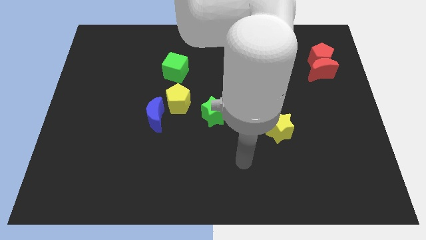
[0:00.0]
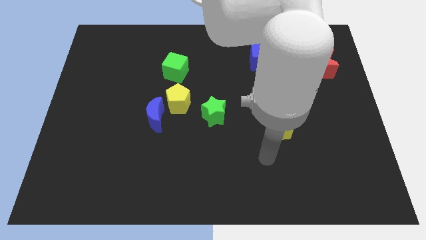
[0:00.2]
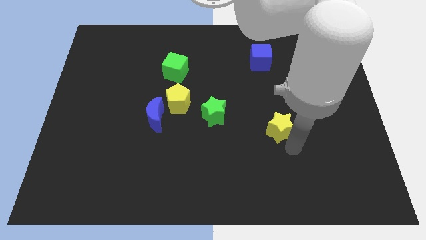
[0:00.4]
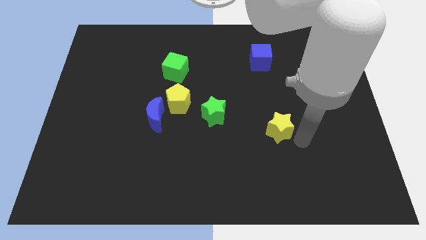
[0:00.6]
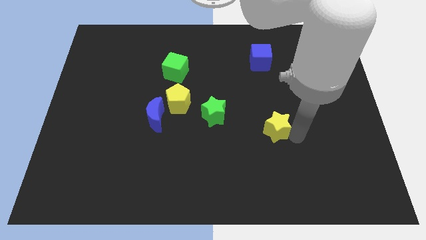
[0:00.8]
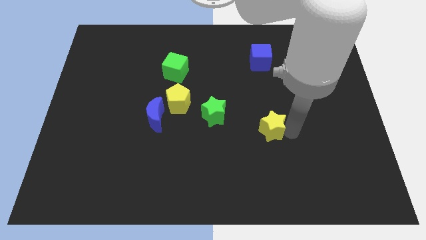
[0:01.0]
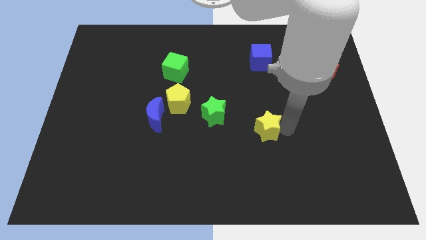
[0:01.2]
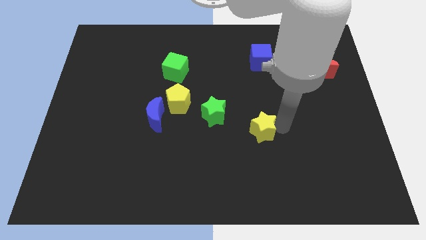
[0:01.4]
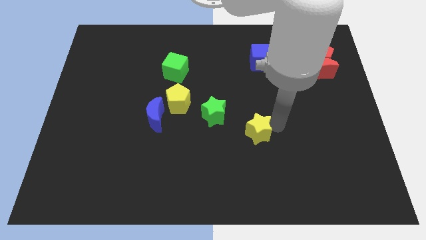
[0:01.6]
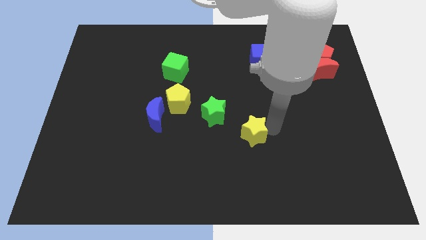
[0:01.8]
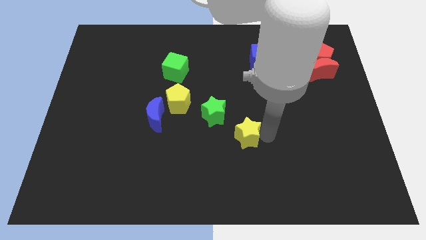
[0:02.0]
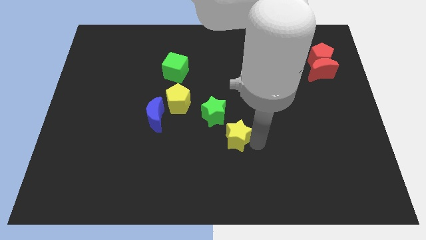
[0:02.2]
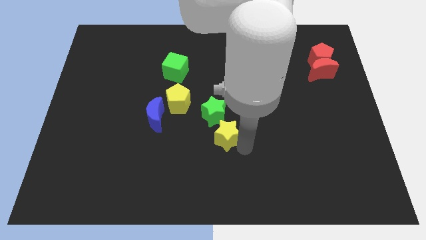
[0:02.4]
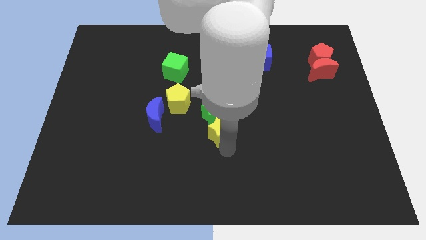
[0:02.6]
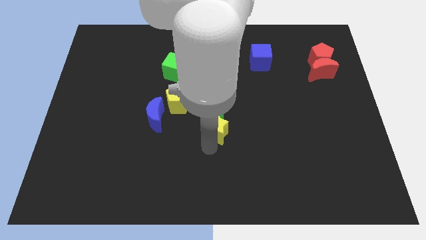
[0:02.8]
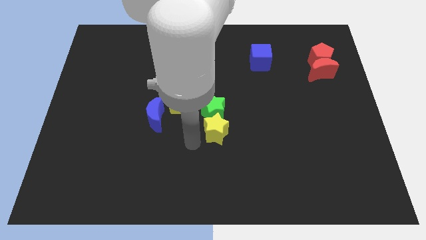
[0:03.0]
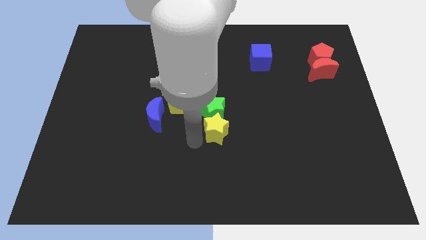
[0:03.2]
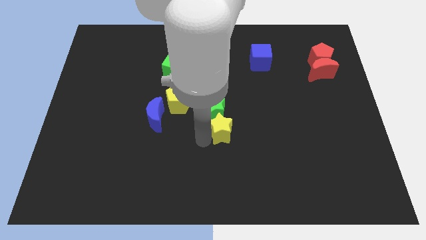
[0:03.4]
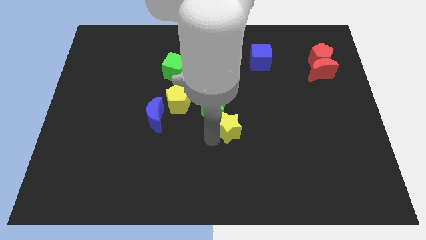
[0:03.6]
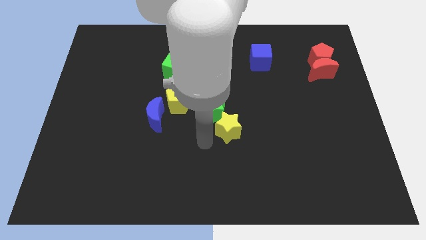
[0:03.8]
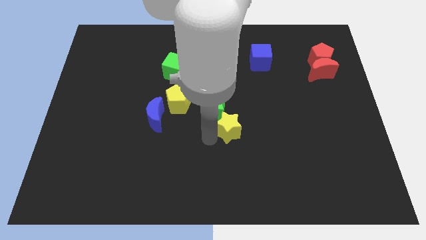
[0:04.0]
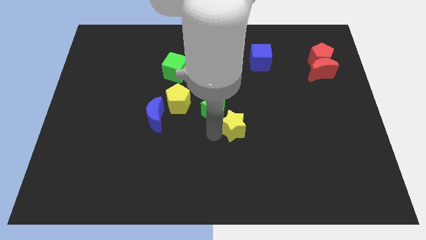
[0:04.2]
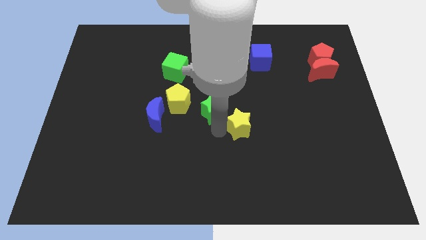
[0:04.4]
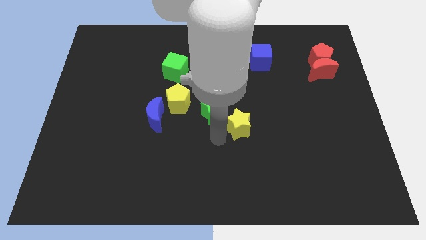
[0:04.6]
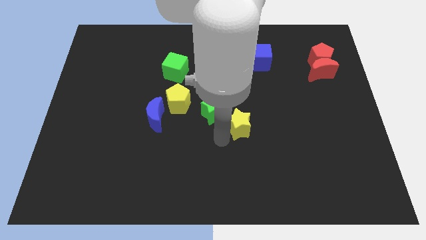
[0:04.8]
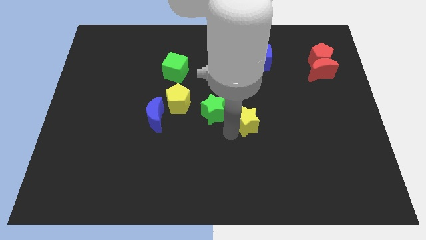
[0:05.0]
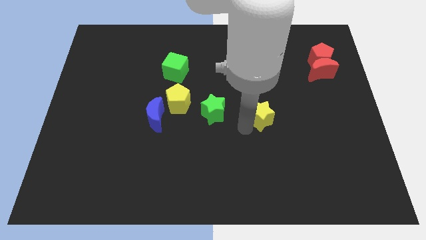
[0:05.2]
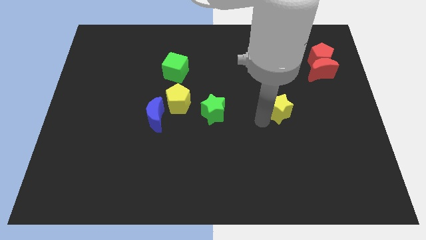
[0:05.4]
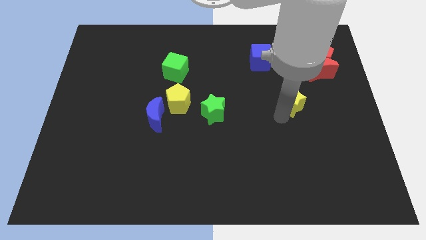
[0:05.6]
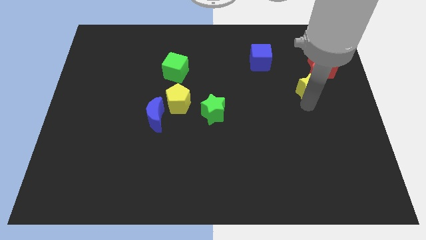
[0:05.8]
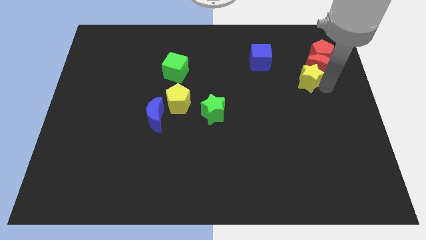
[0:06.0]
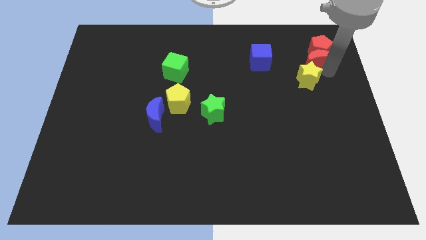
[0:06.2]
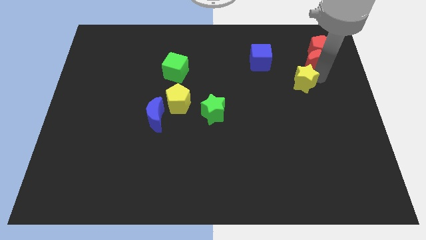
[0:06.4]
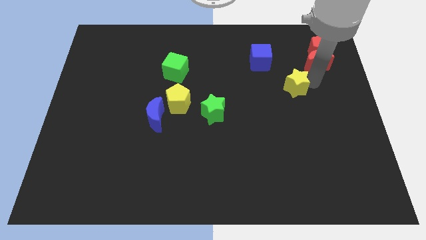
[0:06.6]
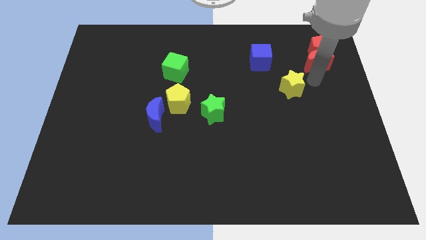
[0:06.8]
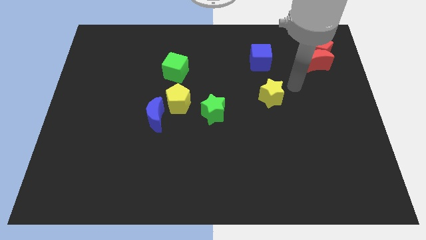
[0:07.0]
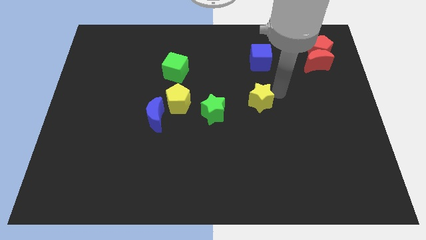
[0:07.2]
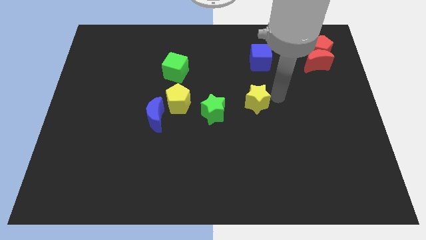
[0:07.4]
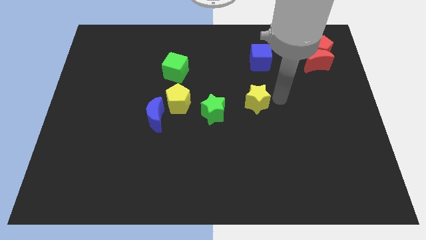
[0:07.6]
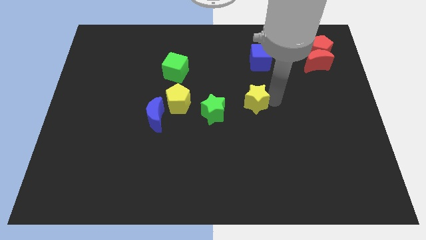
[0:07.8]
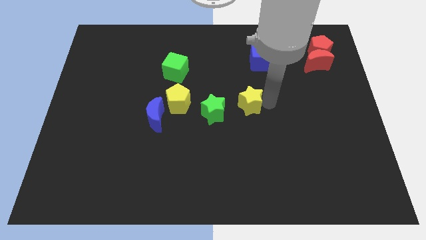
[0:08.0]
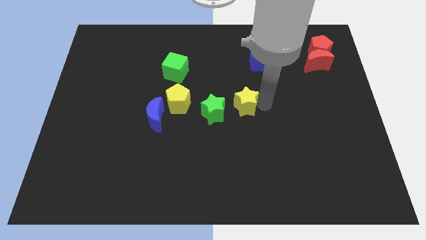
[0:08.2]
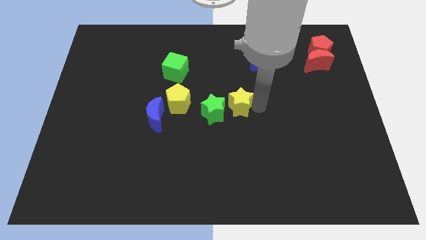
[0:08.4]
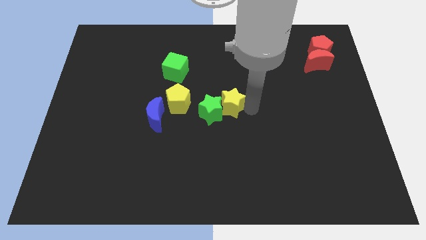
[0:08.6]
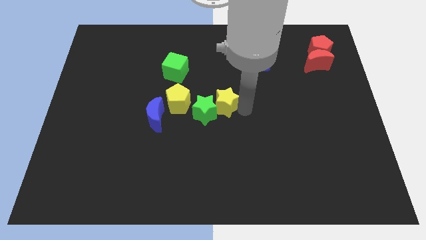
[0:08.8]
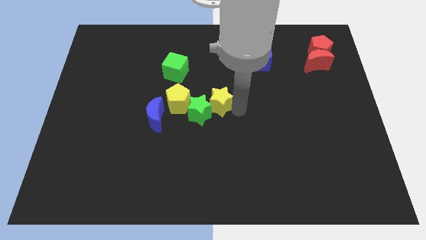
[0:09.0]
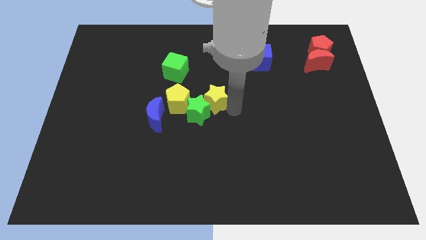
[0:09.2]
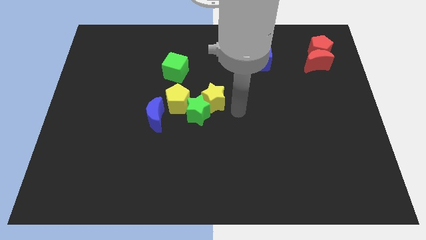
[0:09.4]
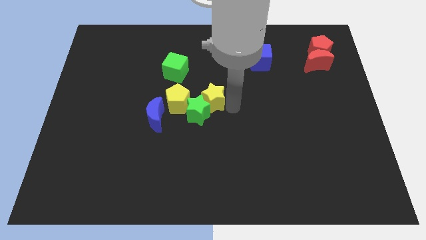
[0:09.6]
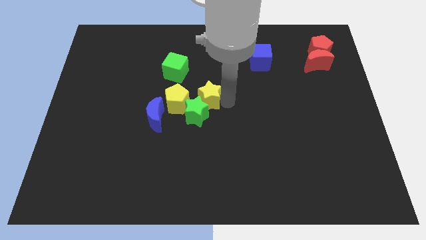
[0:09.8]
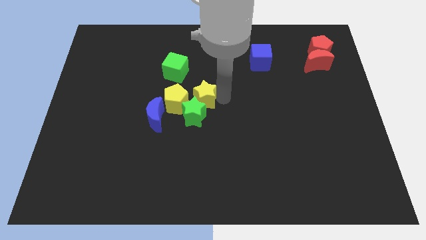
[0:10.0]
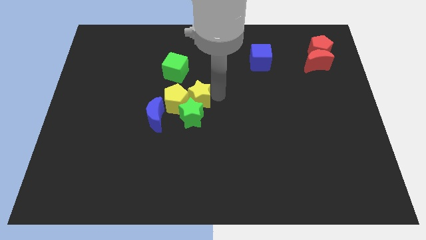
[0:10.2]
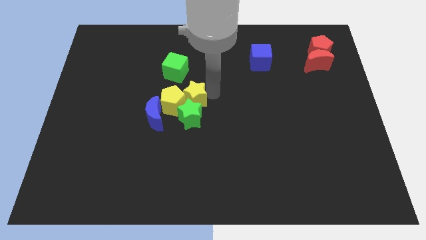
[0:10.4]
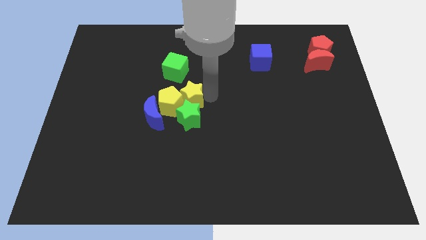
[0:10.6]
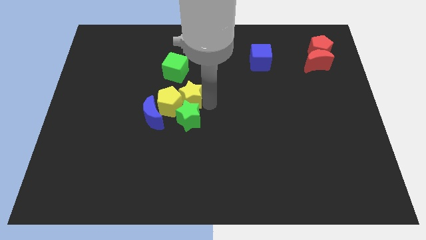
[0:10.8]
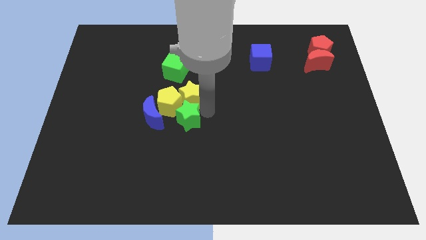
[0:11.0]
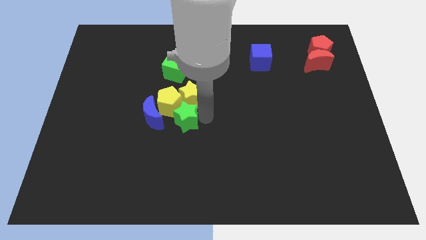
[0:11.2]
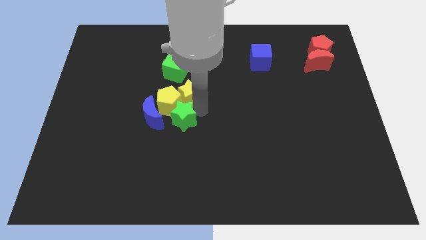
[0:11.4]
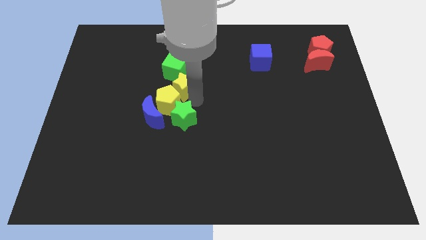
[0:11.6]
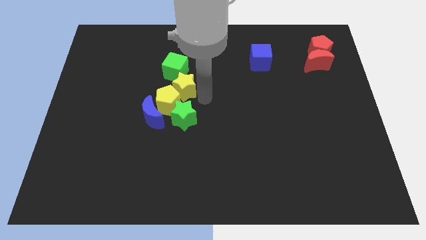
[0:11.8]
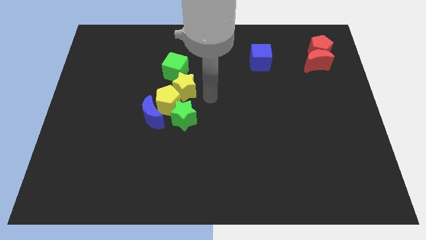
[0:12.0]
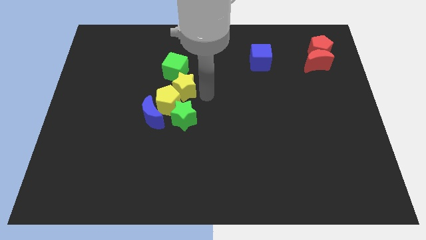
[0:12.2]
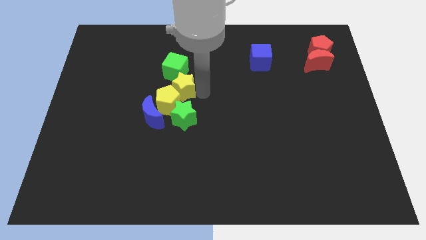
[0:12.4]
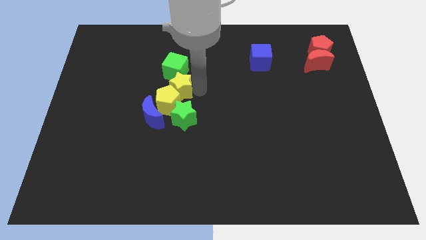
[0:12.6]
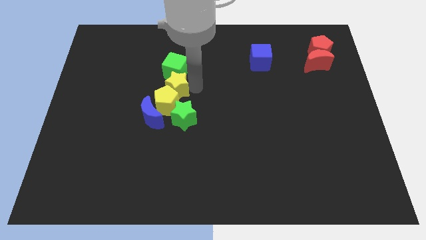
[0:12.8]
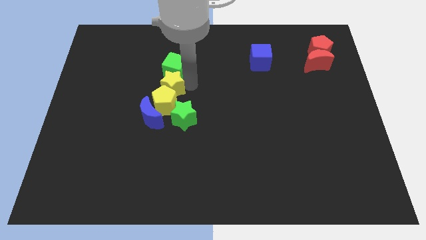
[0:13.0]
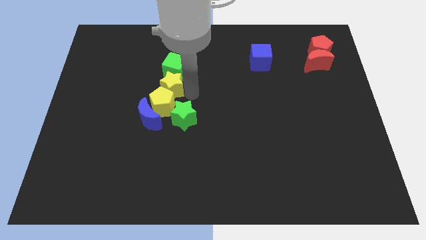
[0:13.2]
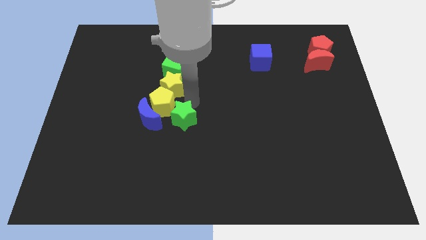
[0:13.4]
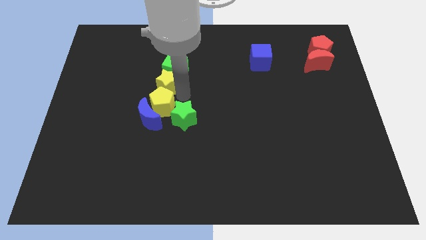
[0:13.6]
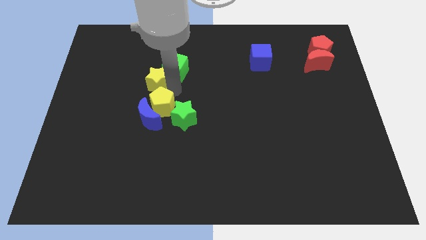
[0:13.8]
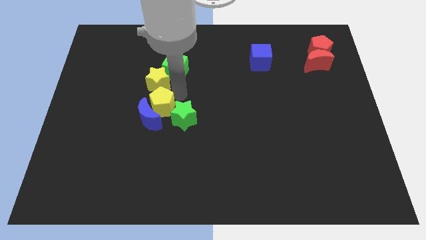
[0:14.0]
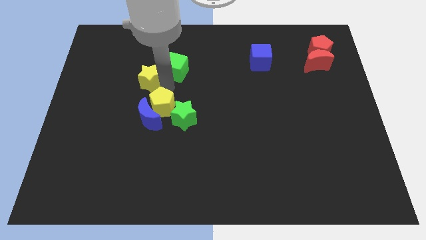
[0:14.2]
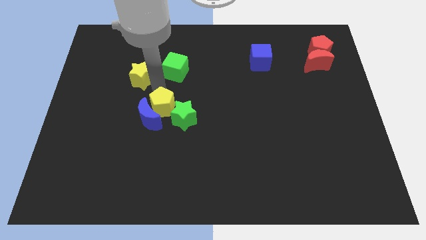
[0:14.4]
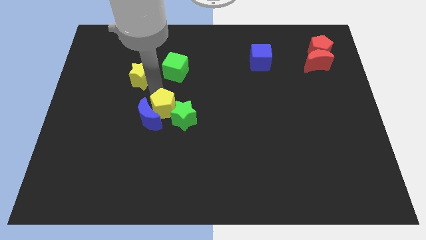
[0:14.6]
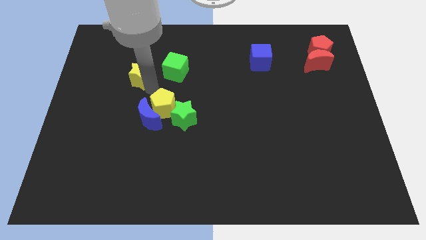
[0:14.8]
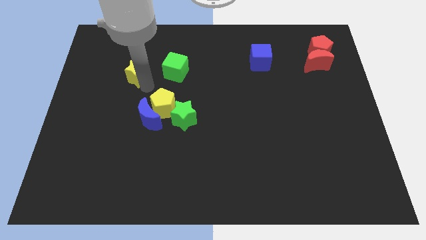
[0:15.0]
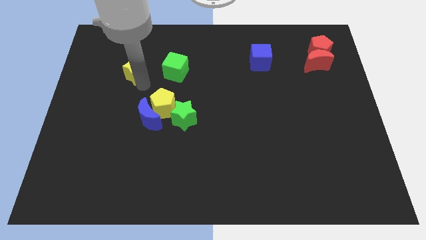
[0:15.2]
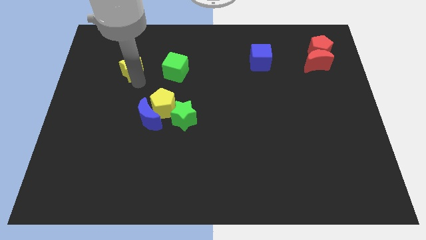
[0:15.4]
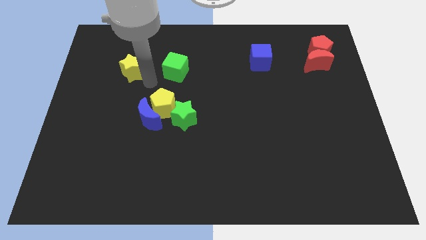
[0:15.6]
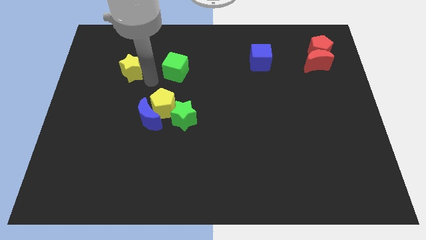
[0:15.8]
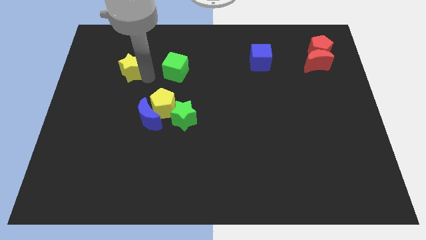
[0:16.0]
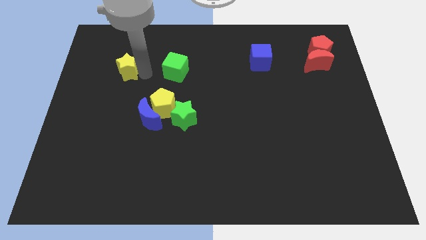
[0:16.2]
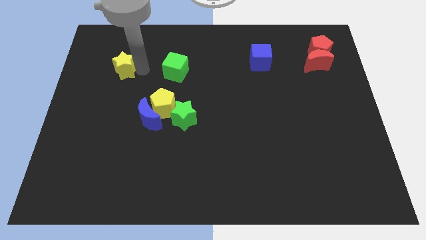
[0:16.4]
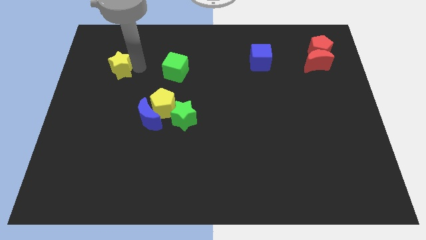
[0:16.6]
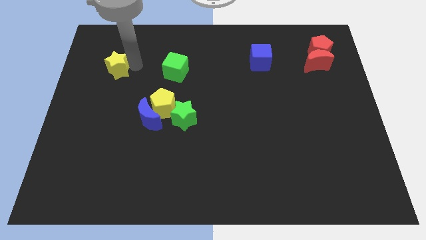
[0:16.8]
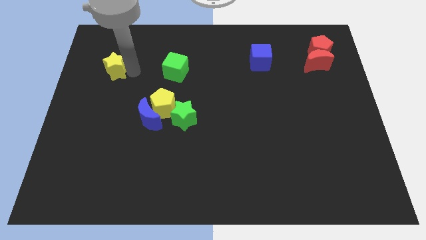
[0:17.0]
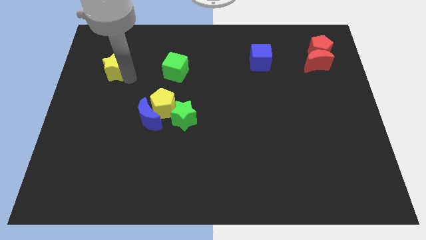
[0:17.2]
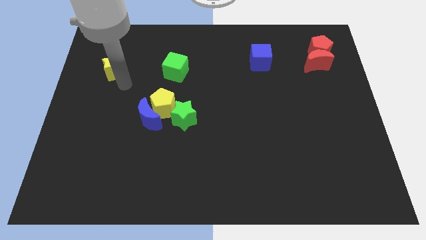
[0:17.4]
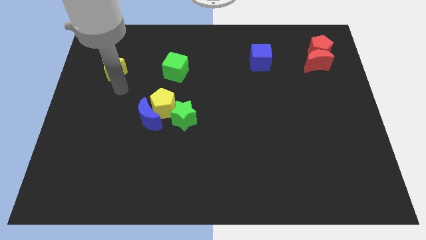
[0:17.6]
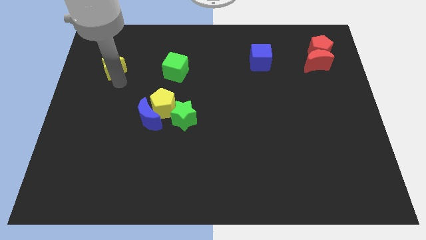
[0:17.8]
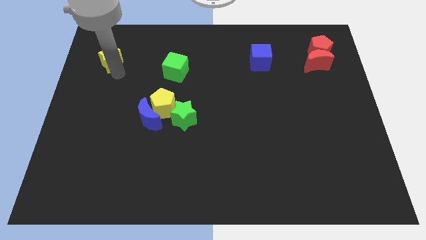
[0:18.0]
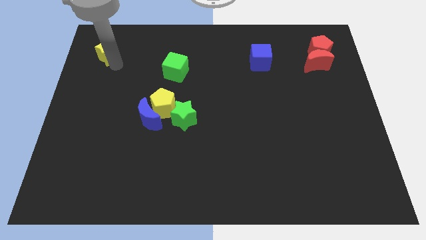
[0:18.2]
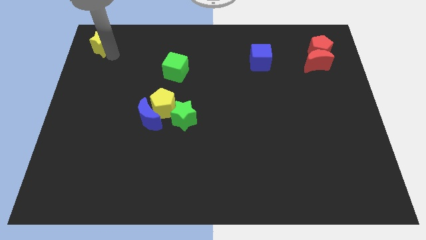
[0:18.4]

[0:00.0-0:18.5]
push the yellow star to the upper left corner
